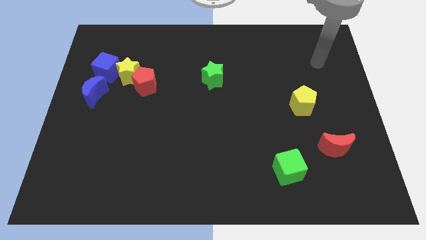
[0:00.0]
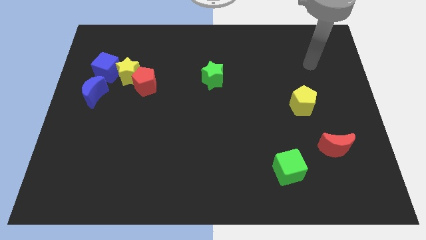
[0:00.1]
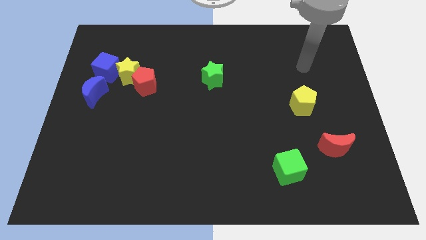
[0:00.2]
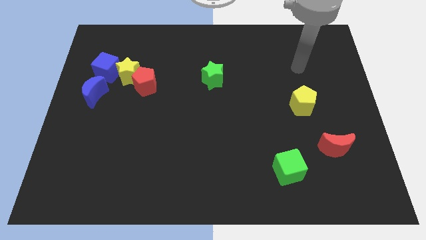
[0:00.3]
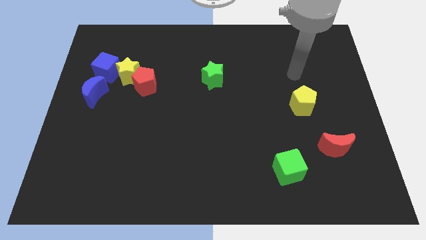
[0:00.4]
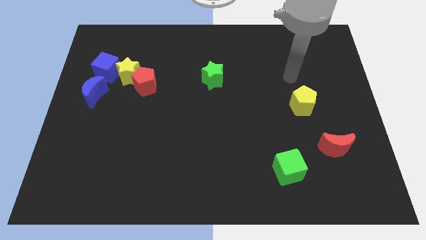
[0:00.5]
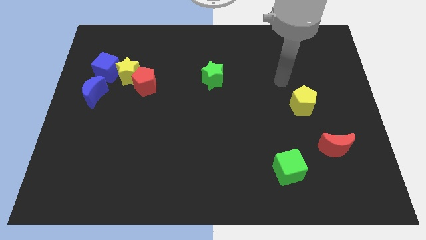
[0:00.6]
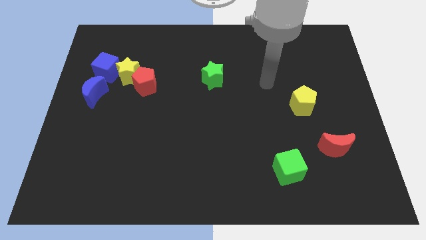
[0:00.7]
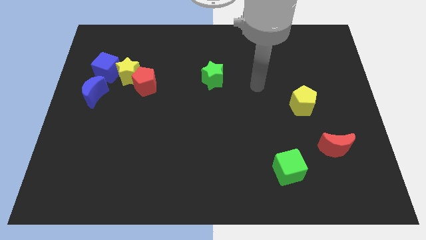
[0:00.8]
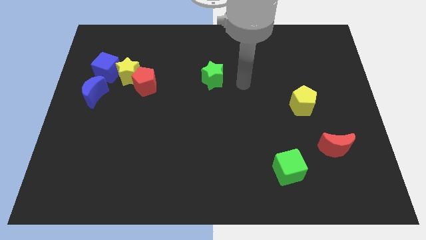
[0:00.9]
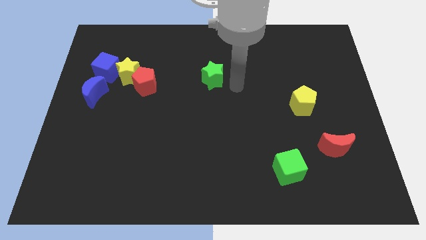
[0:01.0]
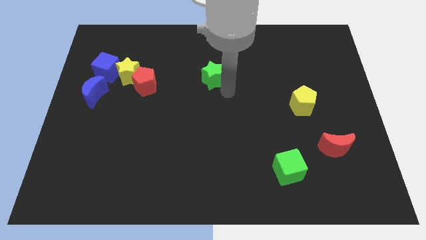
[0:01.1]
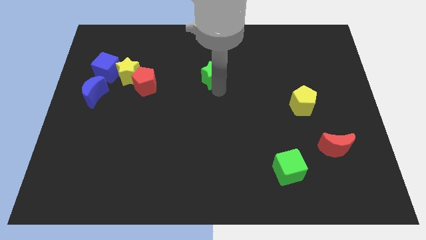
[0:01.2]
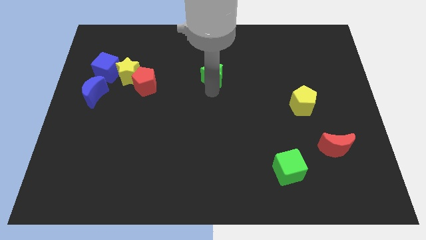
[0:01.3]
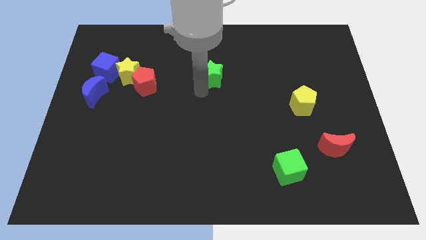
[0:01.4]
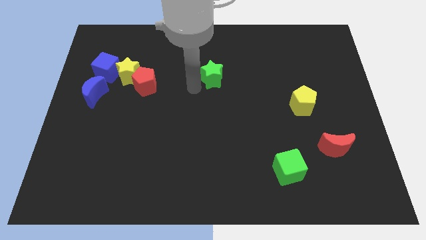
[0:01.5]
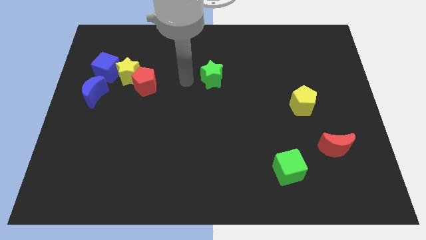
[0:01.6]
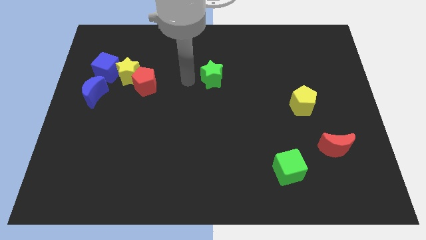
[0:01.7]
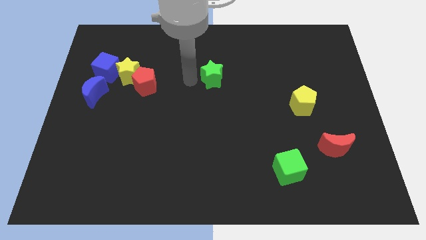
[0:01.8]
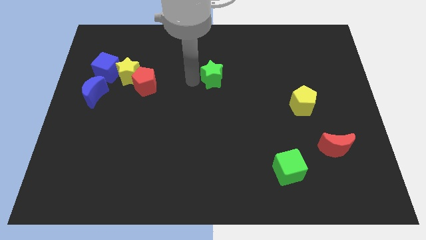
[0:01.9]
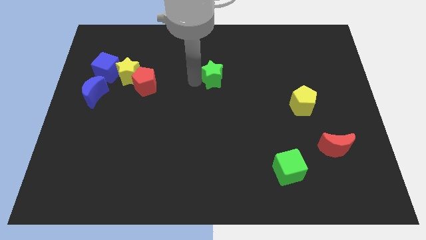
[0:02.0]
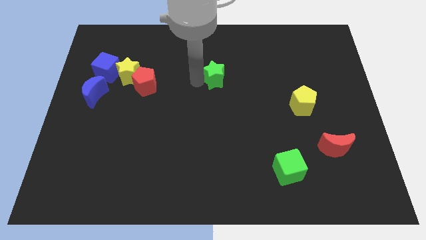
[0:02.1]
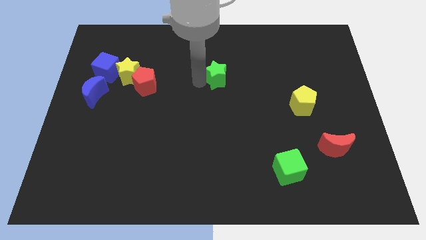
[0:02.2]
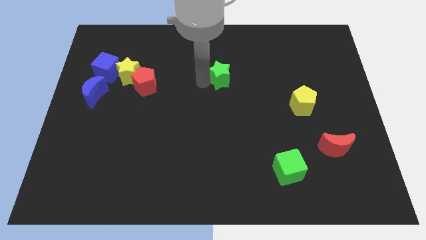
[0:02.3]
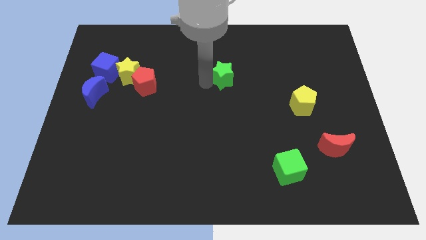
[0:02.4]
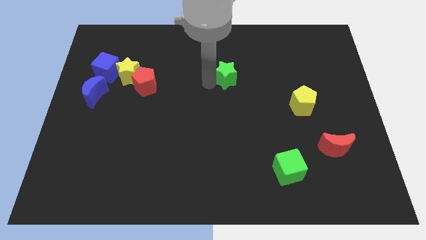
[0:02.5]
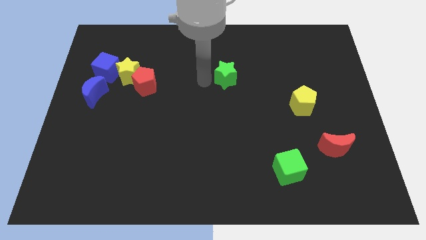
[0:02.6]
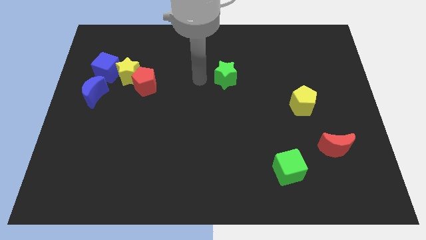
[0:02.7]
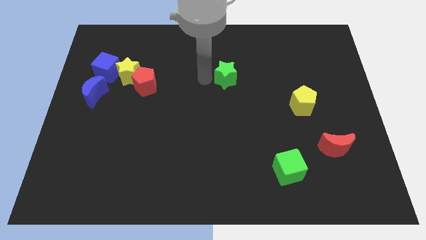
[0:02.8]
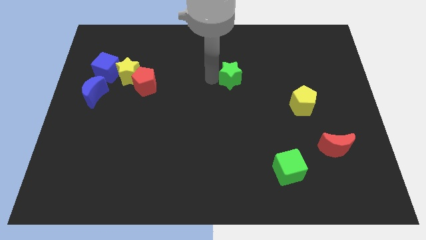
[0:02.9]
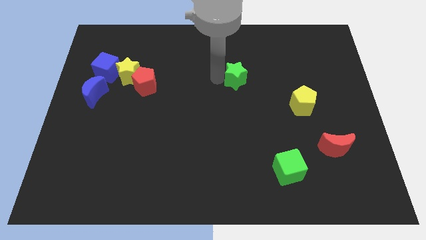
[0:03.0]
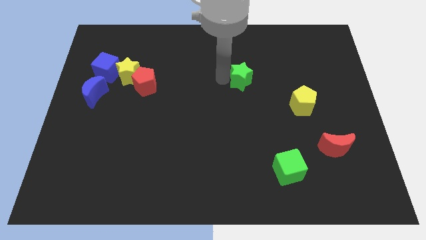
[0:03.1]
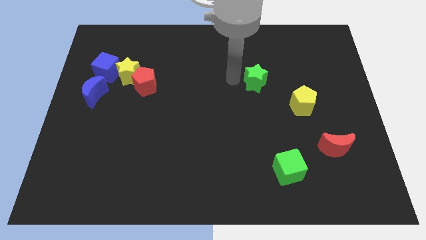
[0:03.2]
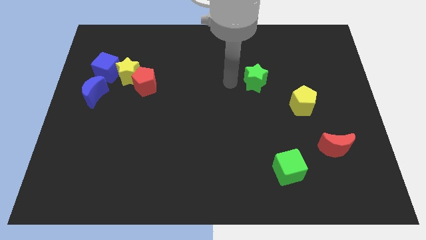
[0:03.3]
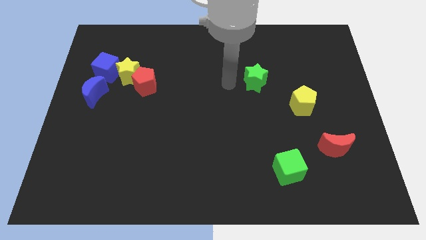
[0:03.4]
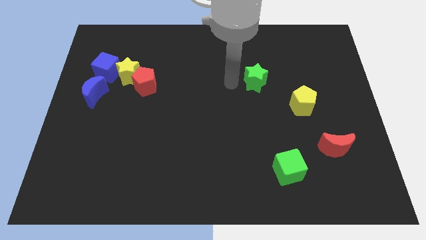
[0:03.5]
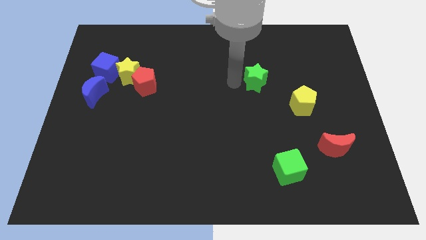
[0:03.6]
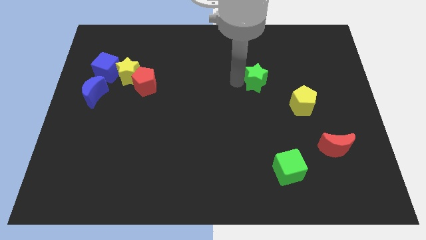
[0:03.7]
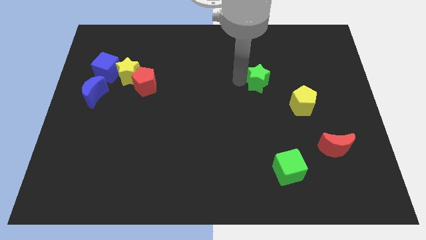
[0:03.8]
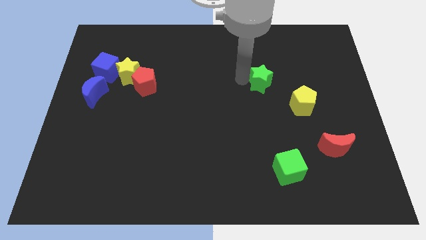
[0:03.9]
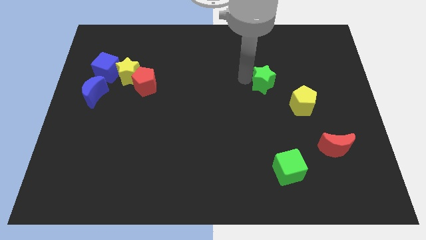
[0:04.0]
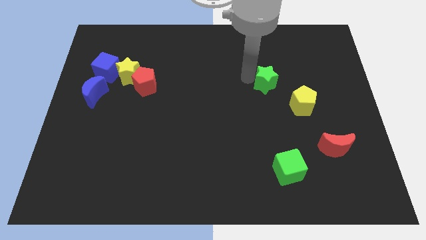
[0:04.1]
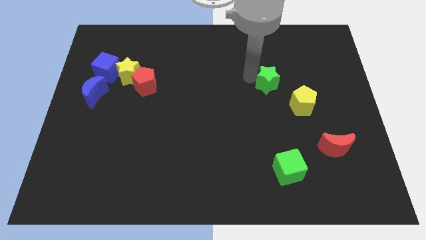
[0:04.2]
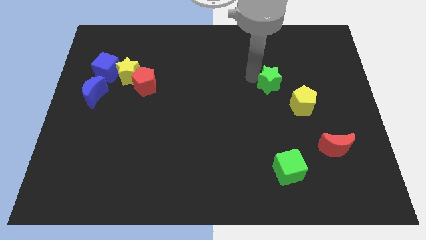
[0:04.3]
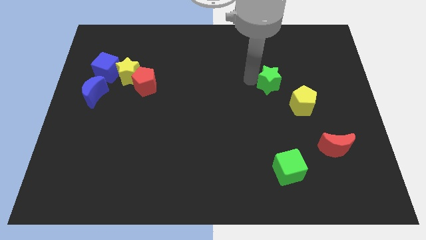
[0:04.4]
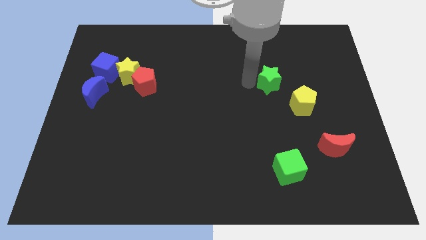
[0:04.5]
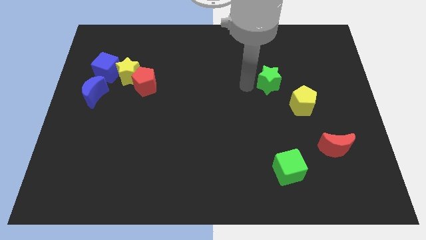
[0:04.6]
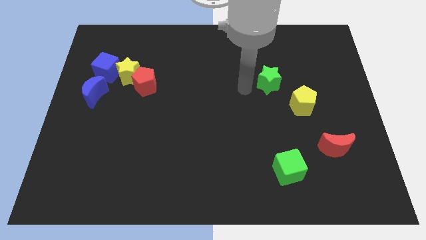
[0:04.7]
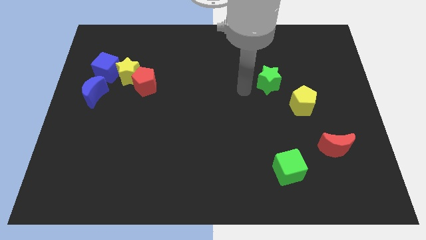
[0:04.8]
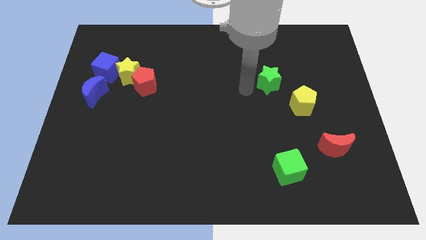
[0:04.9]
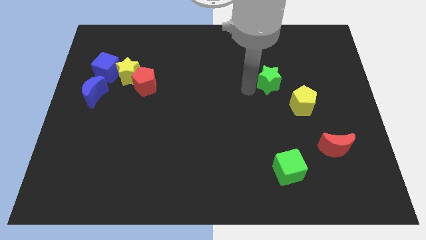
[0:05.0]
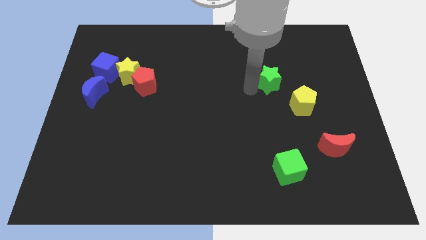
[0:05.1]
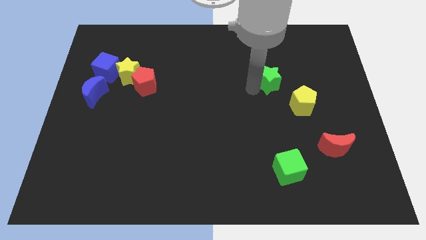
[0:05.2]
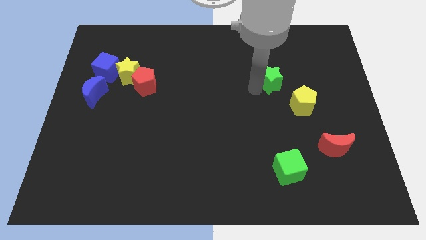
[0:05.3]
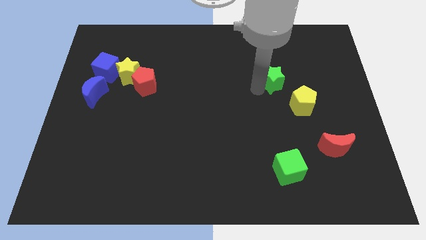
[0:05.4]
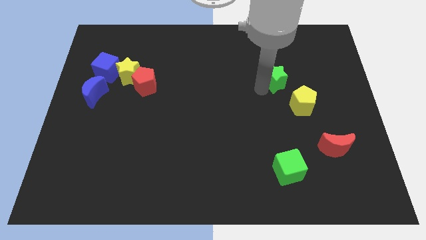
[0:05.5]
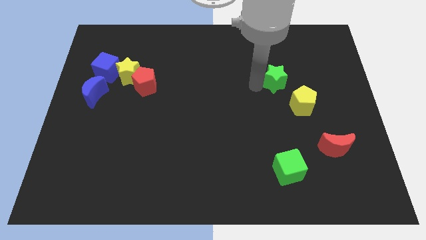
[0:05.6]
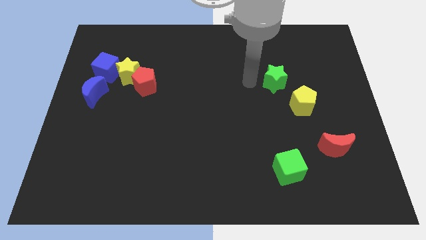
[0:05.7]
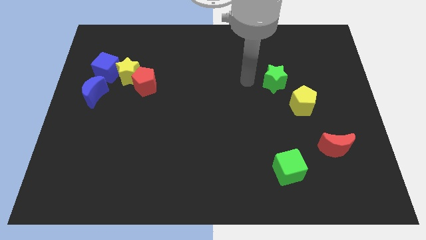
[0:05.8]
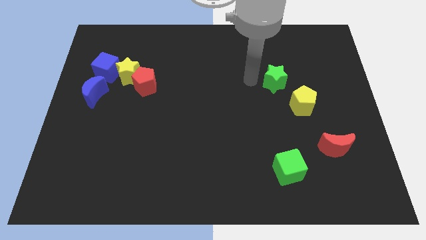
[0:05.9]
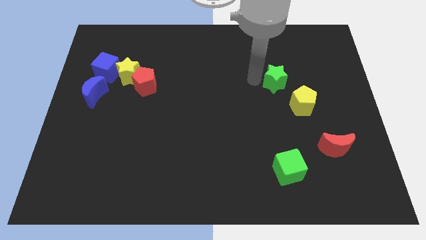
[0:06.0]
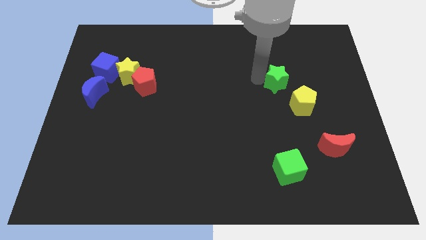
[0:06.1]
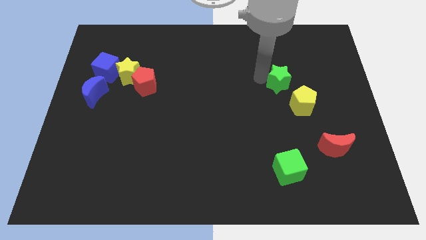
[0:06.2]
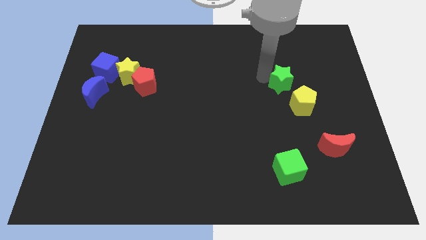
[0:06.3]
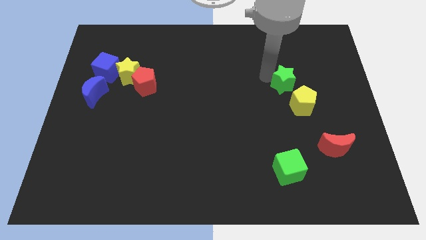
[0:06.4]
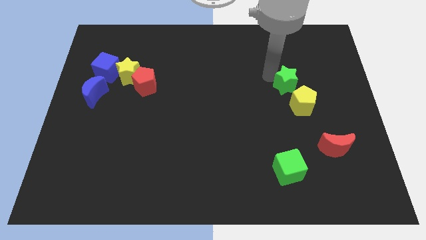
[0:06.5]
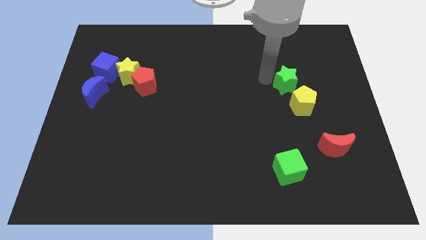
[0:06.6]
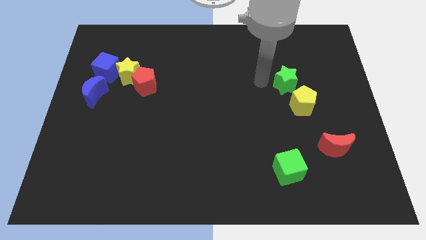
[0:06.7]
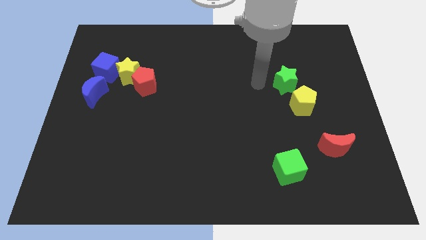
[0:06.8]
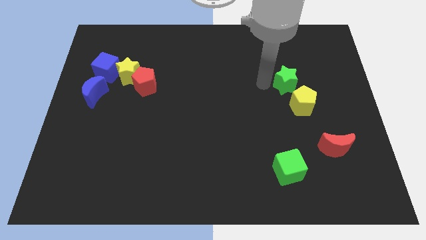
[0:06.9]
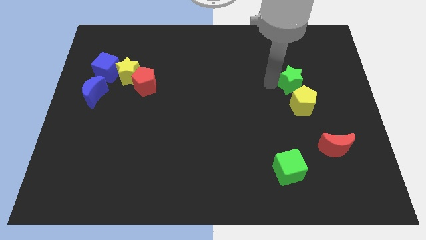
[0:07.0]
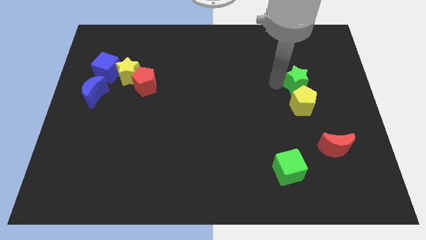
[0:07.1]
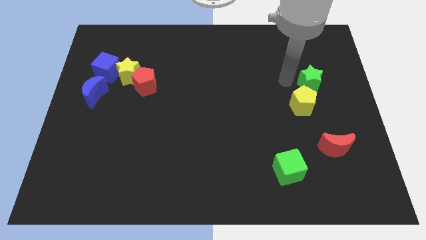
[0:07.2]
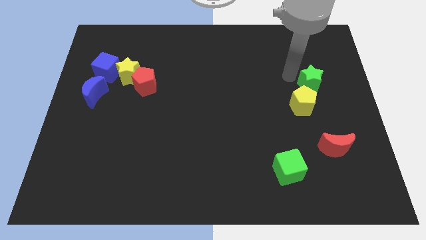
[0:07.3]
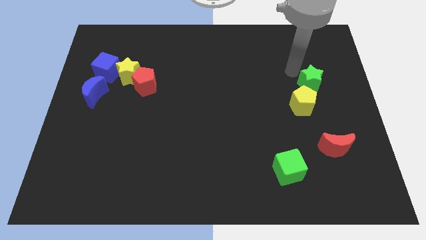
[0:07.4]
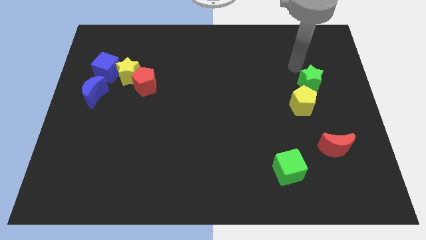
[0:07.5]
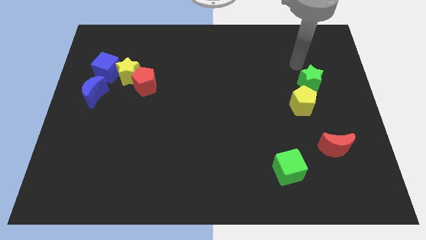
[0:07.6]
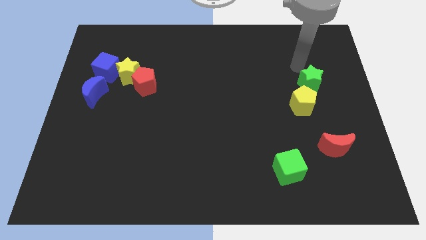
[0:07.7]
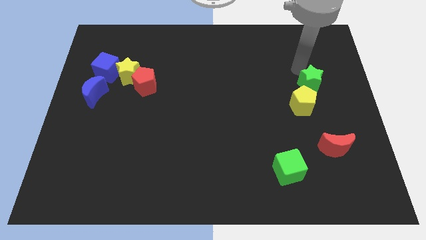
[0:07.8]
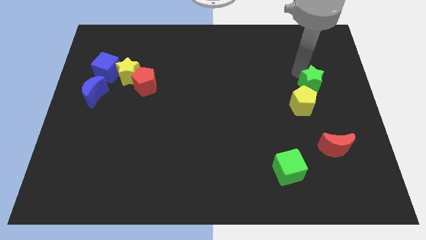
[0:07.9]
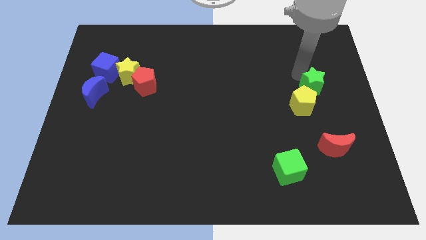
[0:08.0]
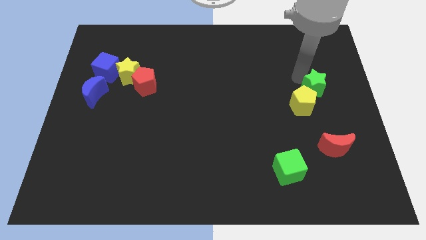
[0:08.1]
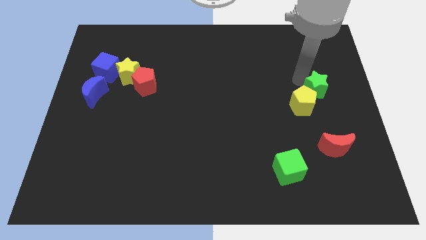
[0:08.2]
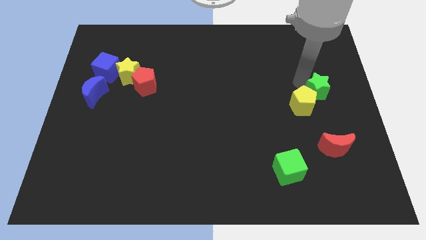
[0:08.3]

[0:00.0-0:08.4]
slide the green star to the top side of the red moon
